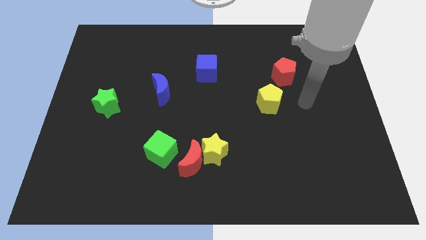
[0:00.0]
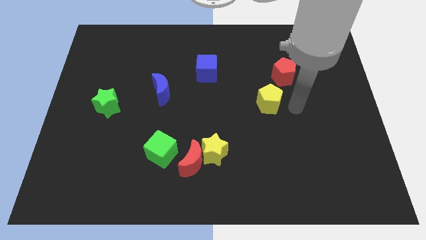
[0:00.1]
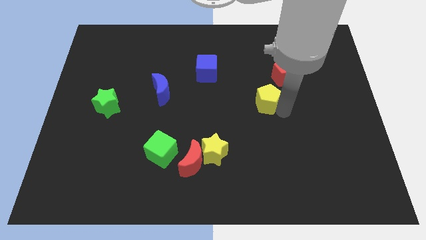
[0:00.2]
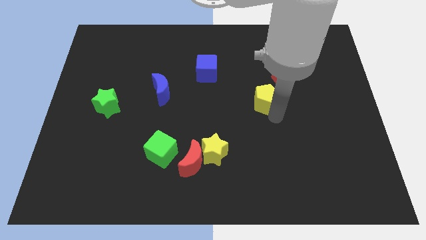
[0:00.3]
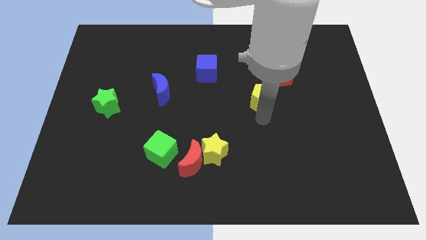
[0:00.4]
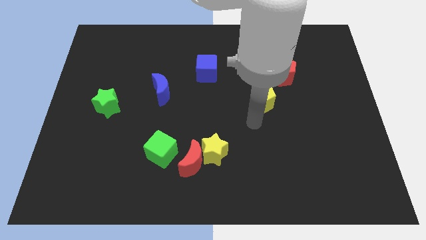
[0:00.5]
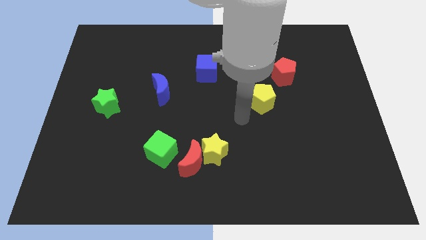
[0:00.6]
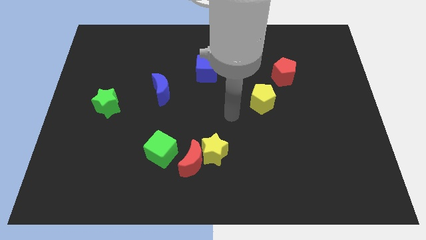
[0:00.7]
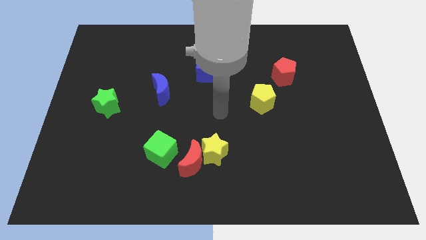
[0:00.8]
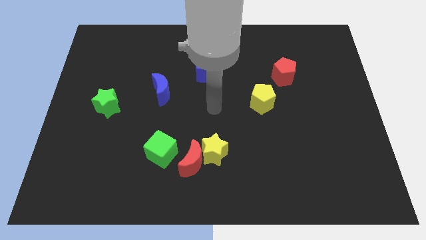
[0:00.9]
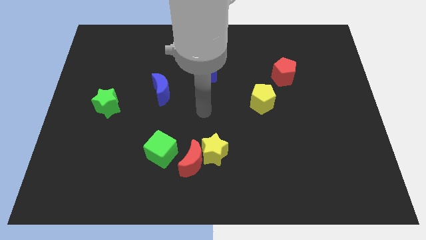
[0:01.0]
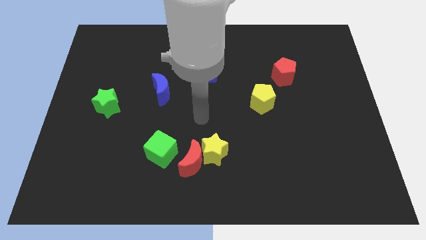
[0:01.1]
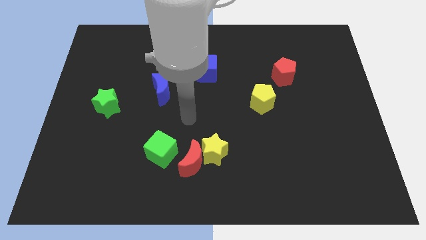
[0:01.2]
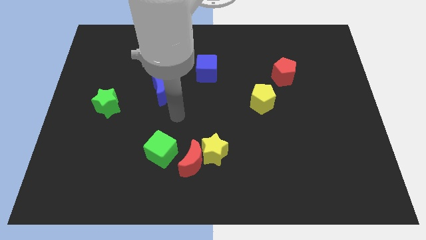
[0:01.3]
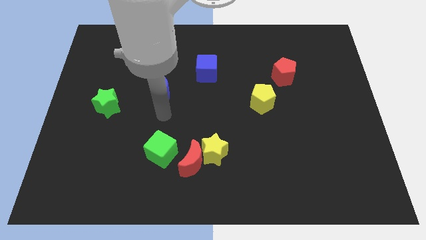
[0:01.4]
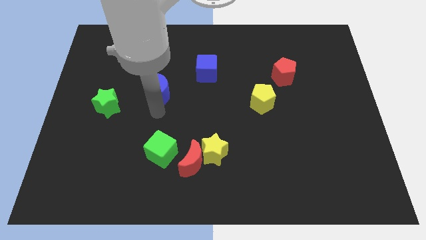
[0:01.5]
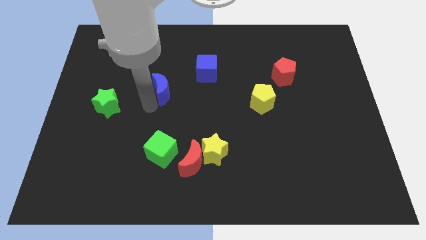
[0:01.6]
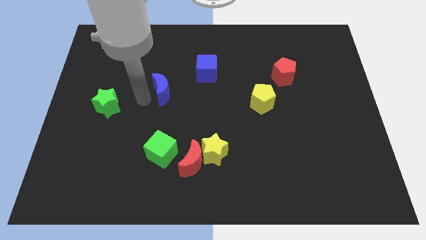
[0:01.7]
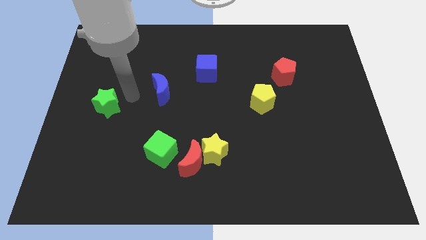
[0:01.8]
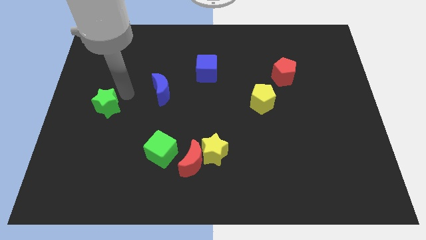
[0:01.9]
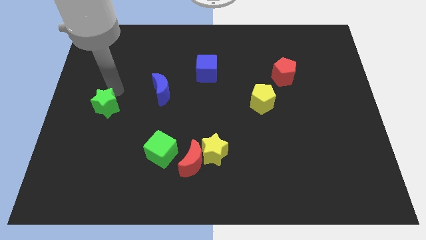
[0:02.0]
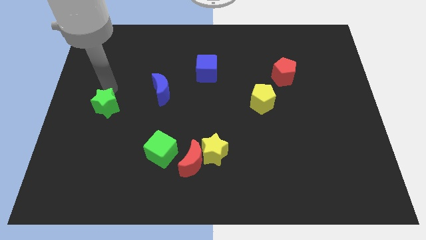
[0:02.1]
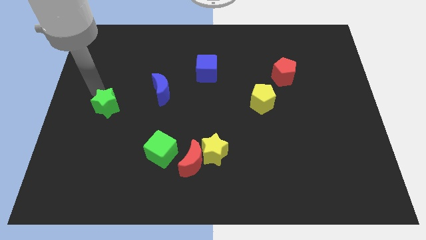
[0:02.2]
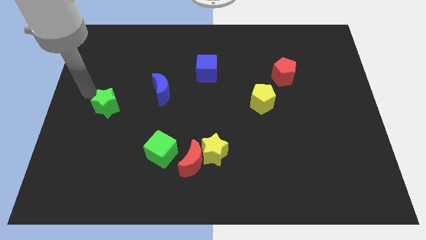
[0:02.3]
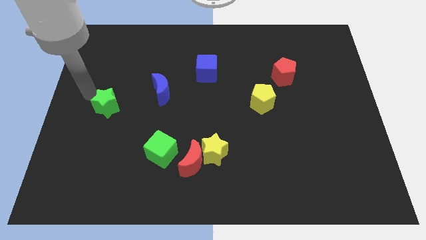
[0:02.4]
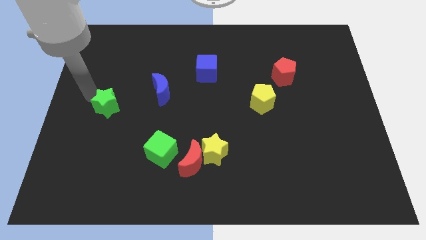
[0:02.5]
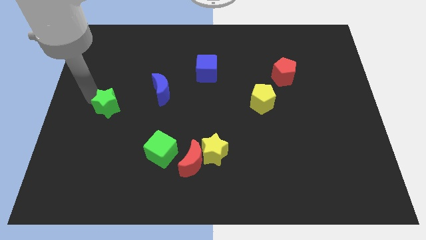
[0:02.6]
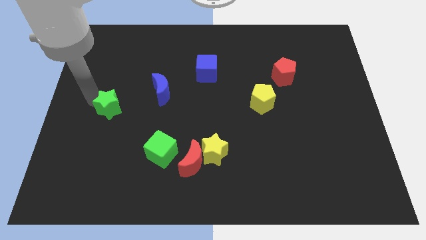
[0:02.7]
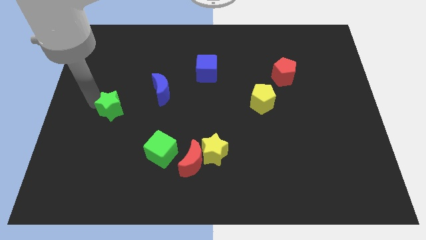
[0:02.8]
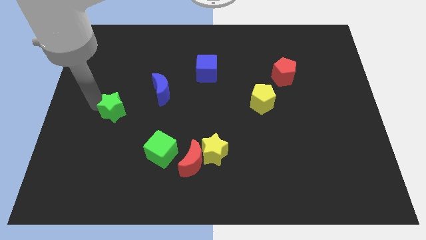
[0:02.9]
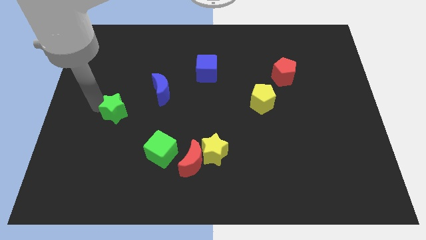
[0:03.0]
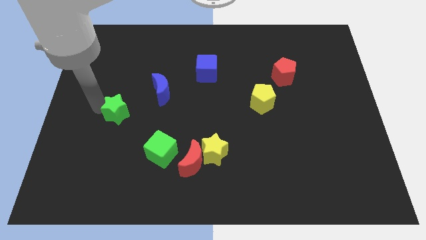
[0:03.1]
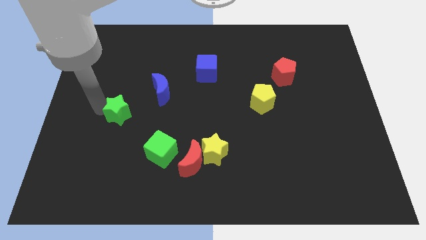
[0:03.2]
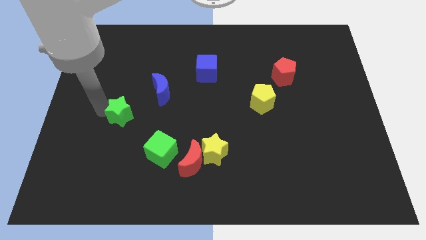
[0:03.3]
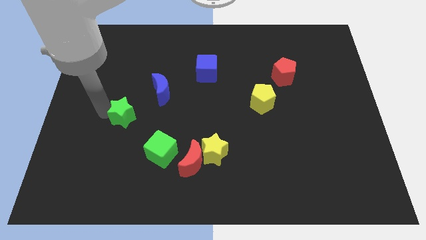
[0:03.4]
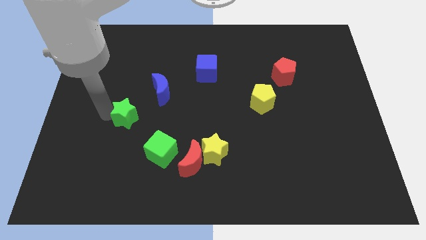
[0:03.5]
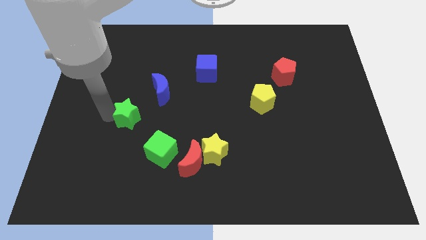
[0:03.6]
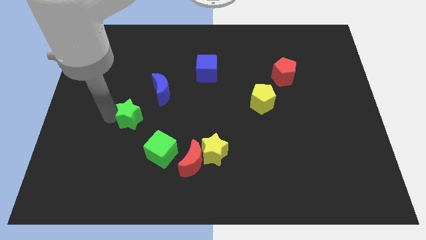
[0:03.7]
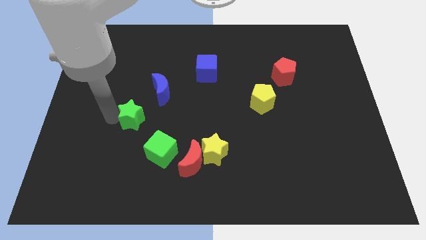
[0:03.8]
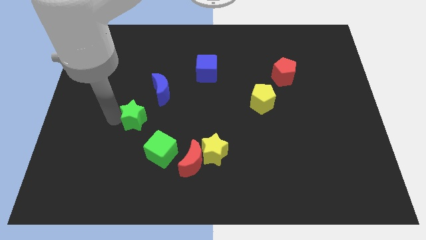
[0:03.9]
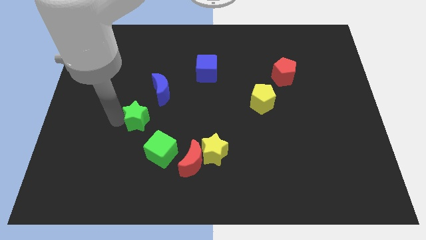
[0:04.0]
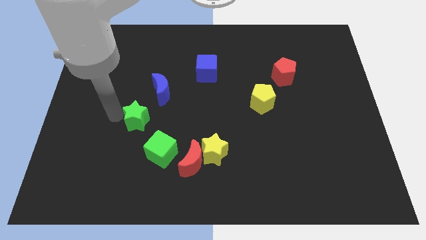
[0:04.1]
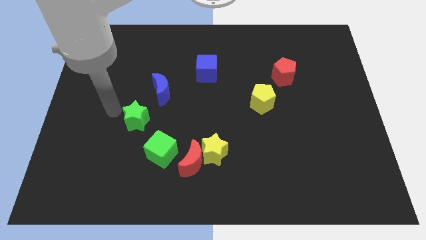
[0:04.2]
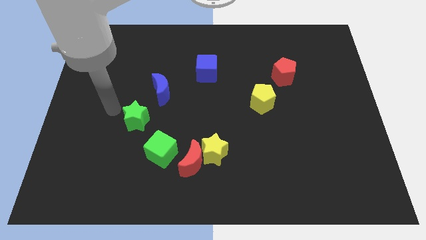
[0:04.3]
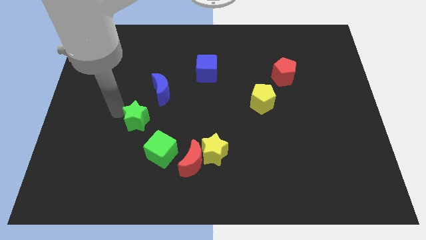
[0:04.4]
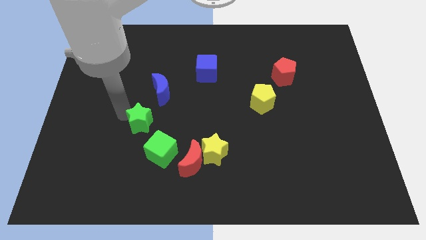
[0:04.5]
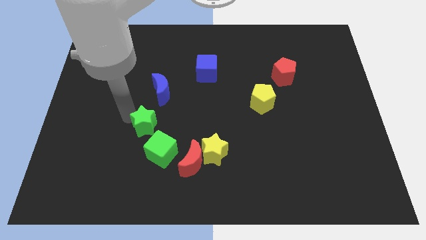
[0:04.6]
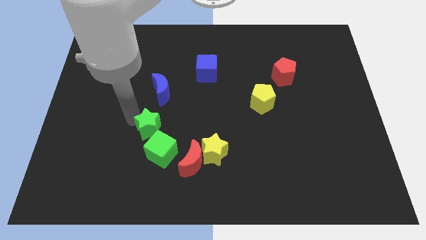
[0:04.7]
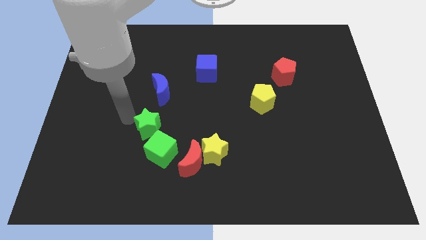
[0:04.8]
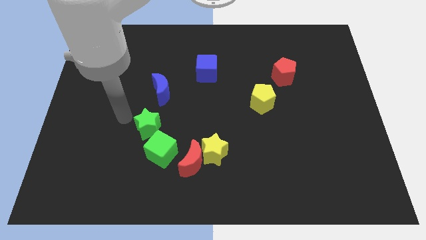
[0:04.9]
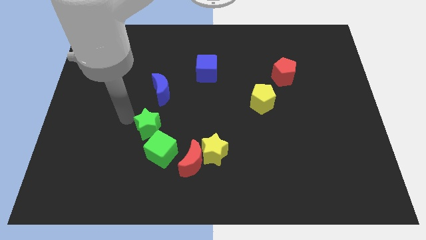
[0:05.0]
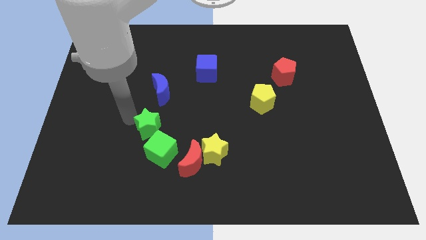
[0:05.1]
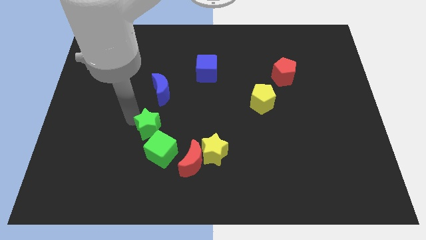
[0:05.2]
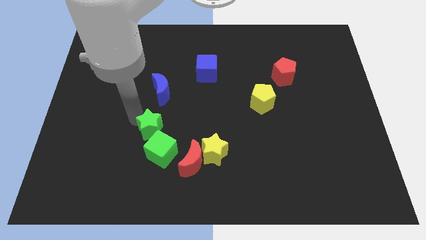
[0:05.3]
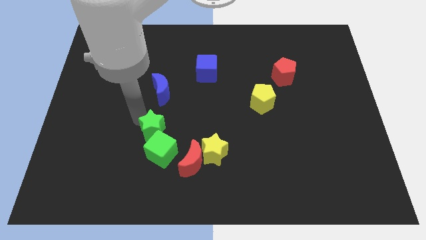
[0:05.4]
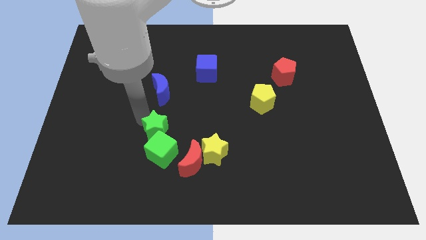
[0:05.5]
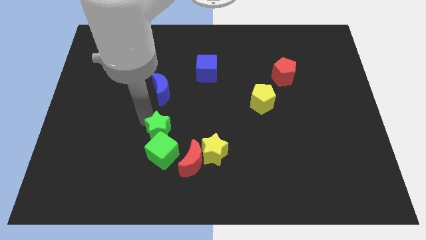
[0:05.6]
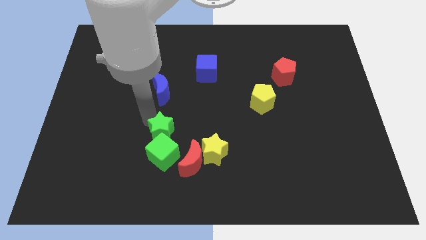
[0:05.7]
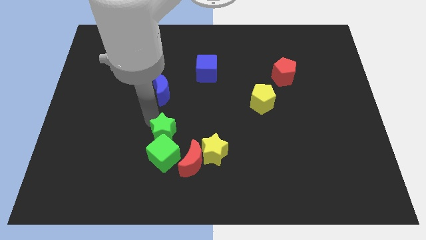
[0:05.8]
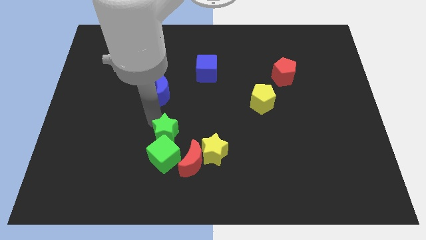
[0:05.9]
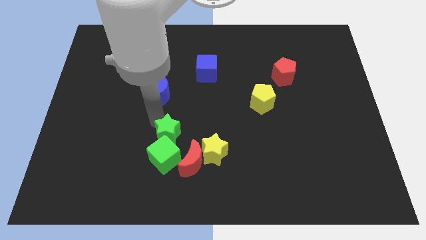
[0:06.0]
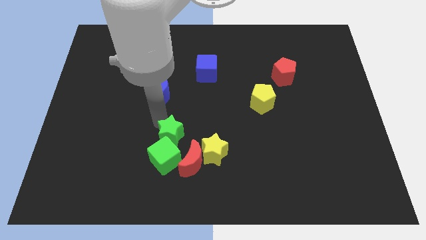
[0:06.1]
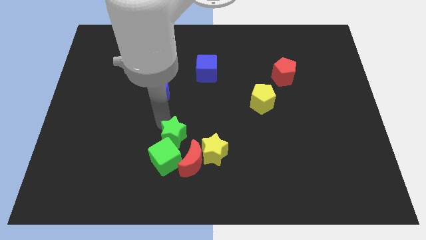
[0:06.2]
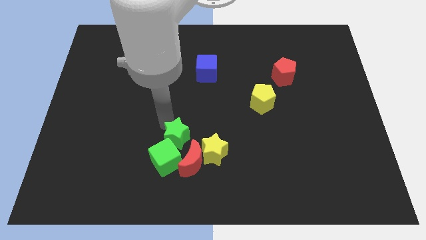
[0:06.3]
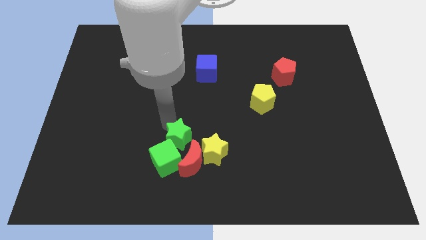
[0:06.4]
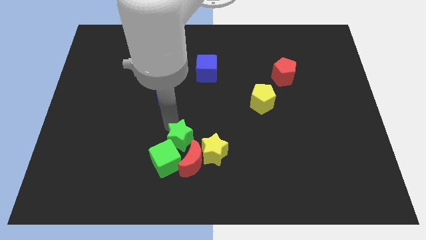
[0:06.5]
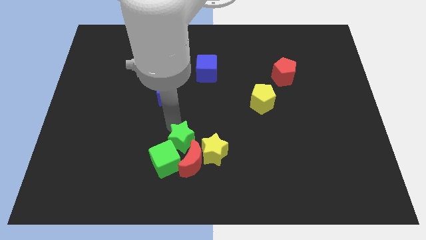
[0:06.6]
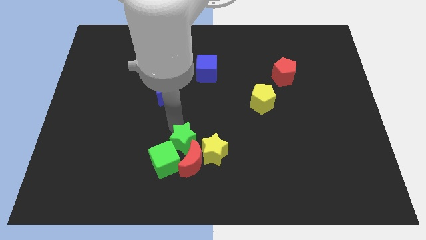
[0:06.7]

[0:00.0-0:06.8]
push the green star to the red moon
